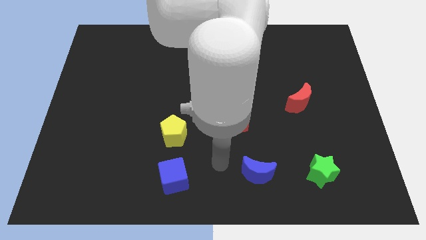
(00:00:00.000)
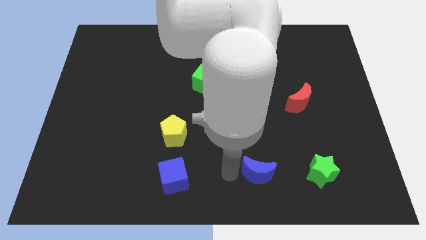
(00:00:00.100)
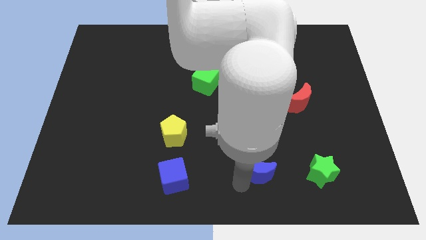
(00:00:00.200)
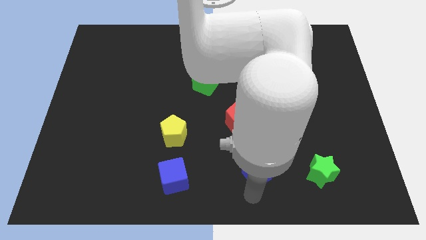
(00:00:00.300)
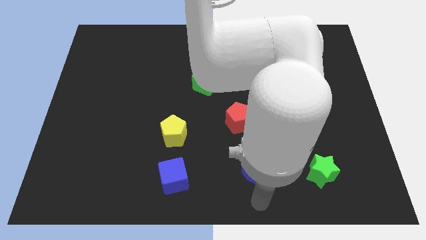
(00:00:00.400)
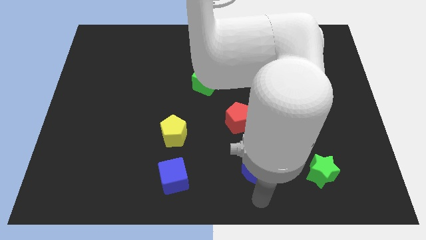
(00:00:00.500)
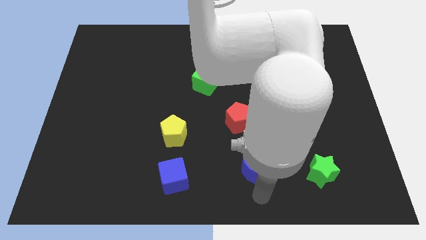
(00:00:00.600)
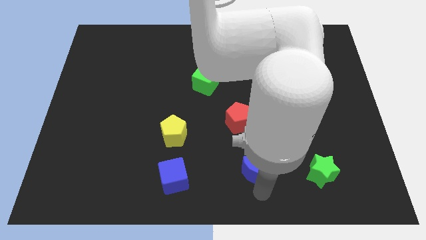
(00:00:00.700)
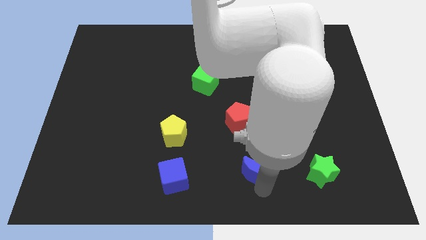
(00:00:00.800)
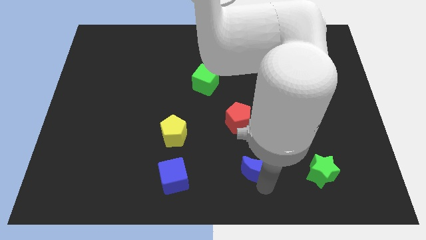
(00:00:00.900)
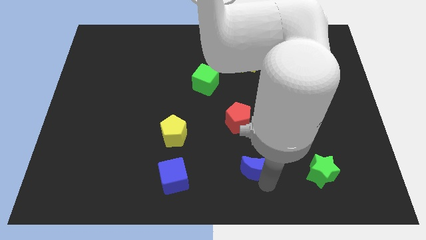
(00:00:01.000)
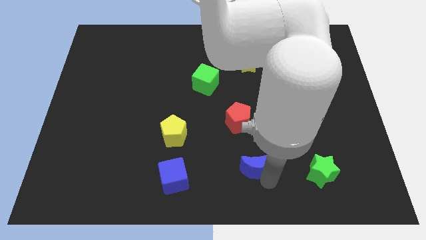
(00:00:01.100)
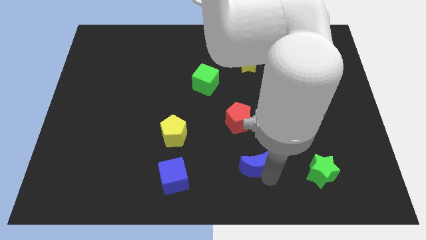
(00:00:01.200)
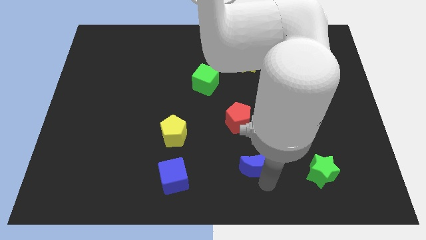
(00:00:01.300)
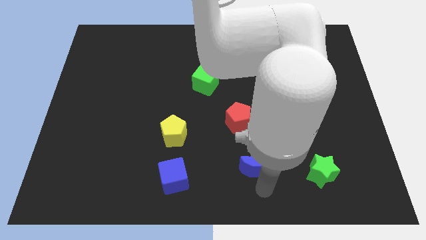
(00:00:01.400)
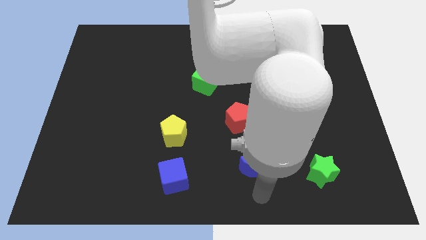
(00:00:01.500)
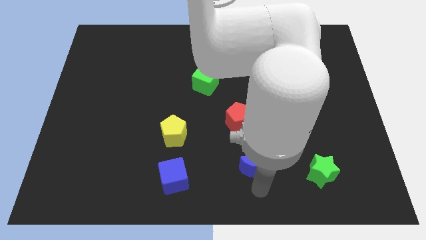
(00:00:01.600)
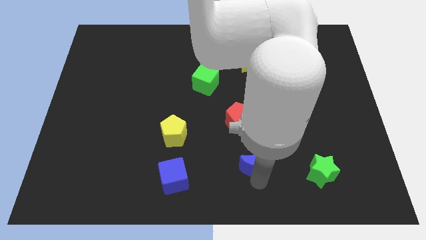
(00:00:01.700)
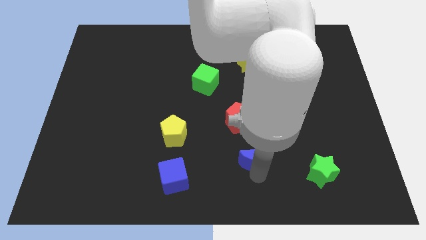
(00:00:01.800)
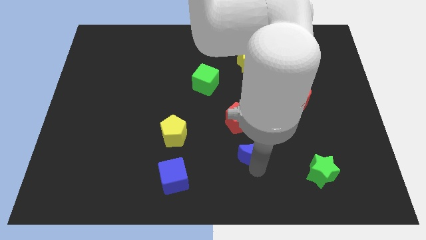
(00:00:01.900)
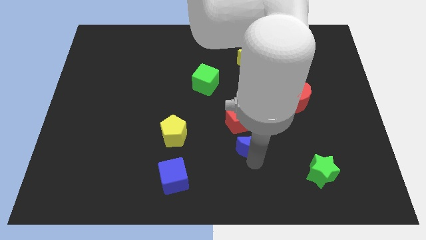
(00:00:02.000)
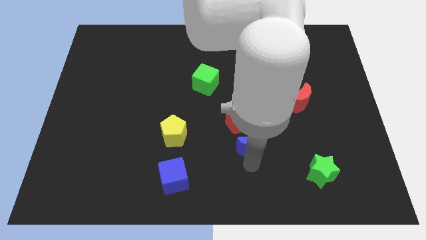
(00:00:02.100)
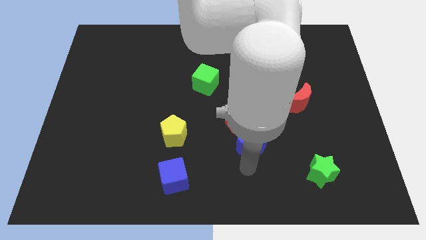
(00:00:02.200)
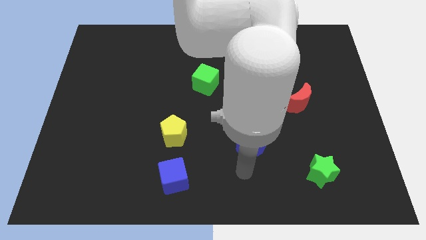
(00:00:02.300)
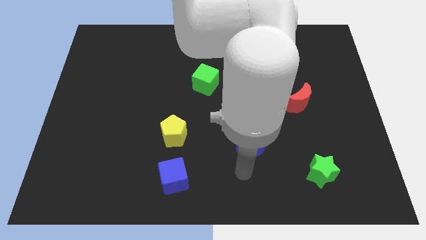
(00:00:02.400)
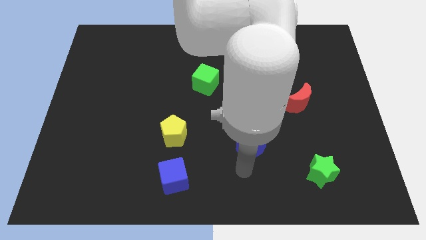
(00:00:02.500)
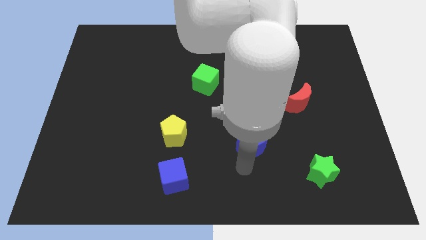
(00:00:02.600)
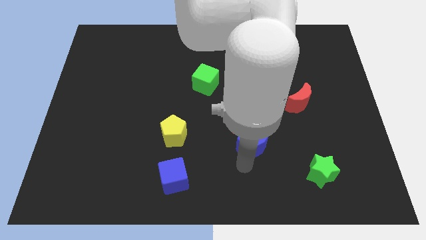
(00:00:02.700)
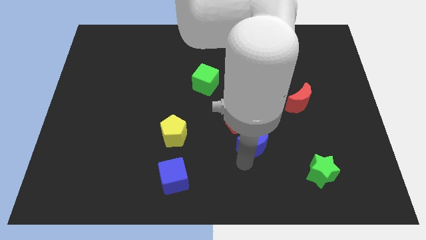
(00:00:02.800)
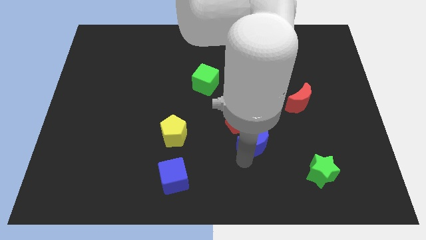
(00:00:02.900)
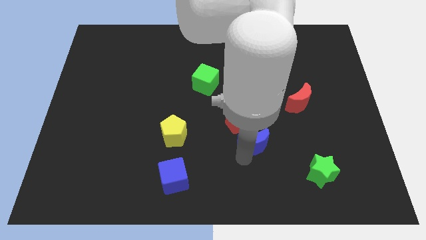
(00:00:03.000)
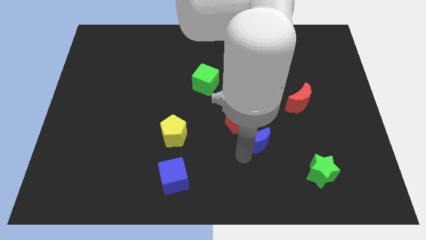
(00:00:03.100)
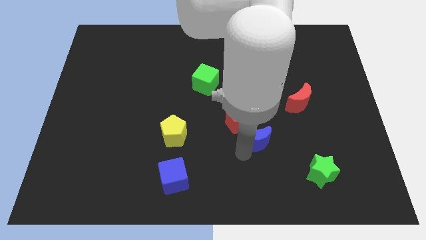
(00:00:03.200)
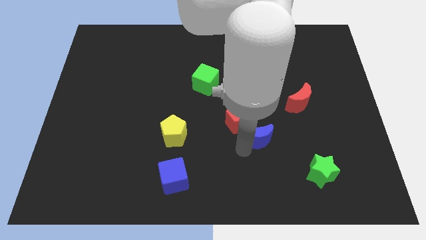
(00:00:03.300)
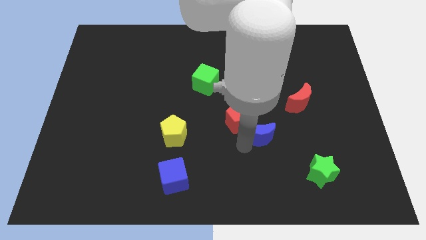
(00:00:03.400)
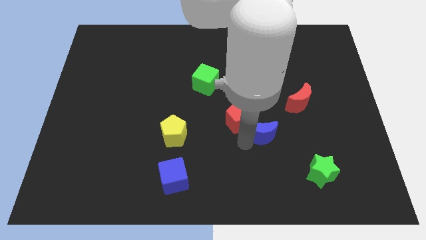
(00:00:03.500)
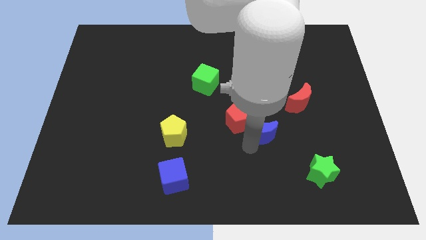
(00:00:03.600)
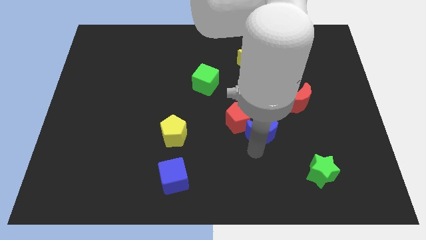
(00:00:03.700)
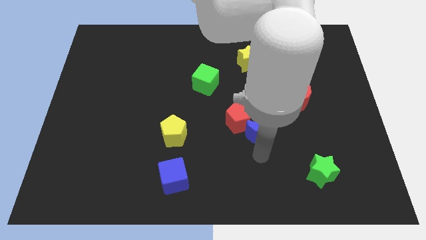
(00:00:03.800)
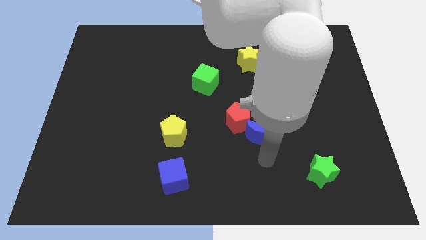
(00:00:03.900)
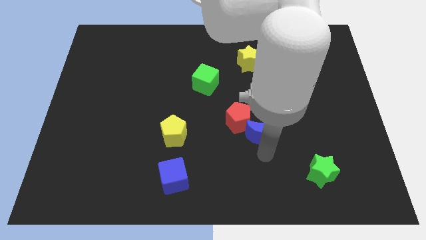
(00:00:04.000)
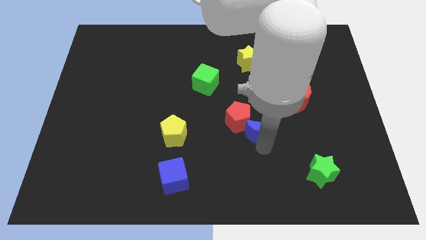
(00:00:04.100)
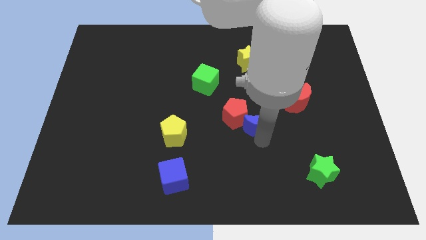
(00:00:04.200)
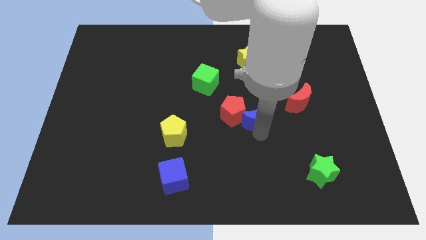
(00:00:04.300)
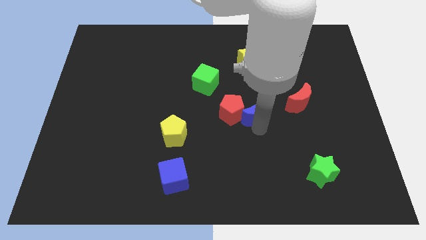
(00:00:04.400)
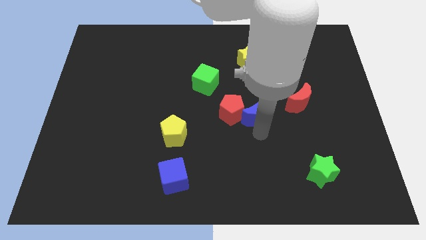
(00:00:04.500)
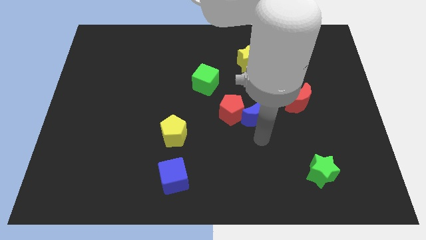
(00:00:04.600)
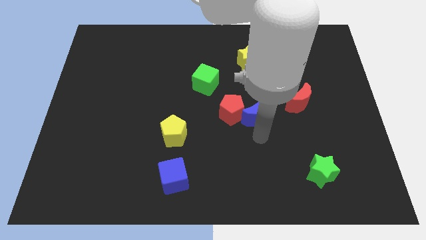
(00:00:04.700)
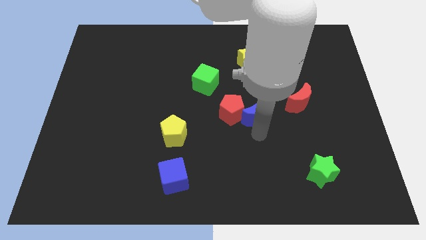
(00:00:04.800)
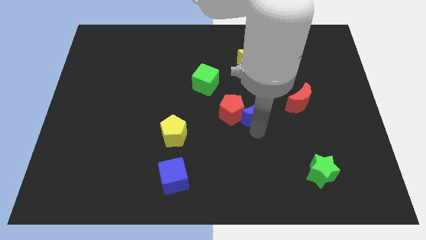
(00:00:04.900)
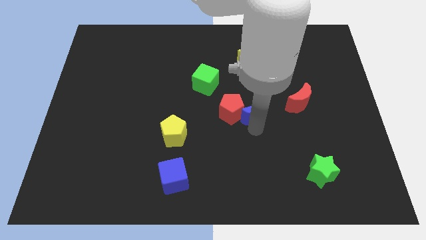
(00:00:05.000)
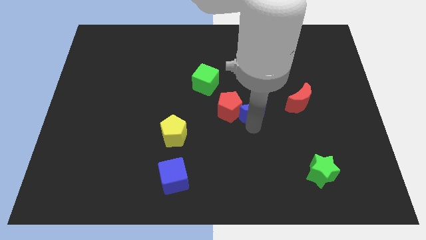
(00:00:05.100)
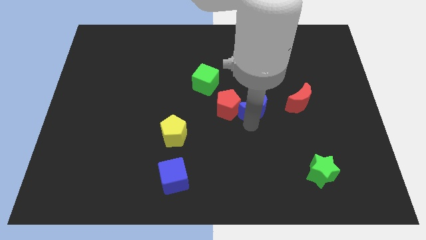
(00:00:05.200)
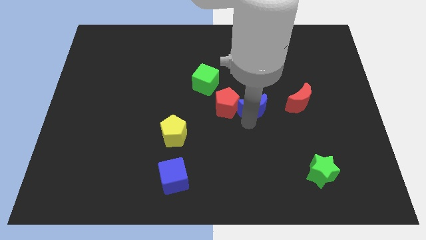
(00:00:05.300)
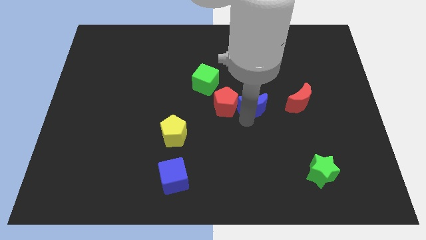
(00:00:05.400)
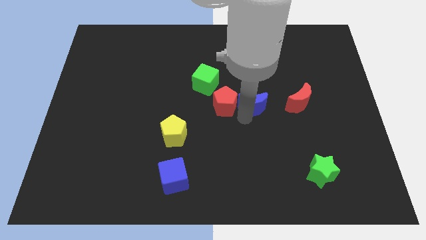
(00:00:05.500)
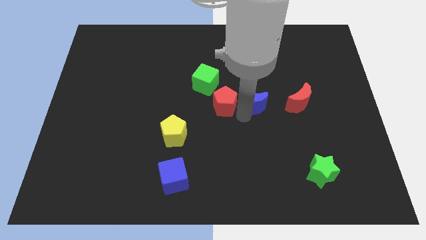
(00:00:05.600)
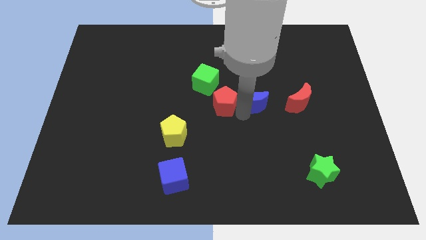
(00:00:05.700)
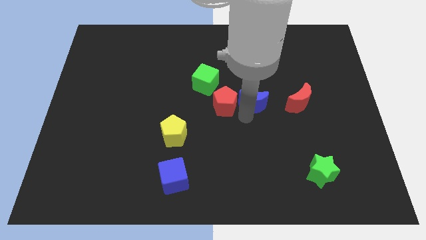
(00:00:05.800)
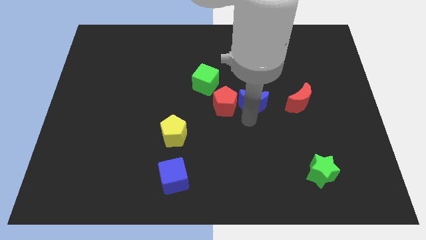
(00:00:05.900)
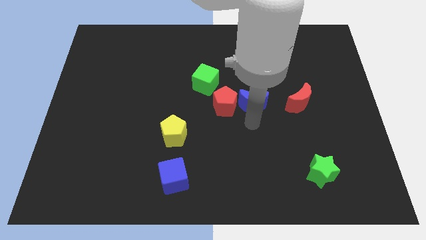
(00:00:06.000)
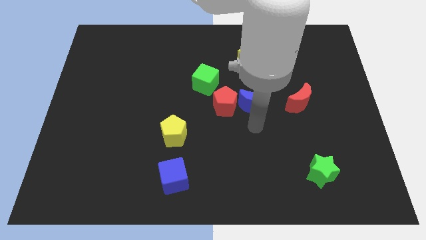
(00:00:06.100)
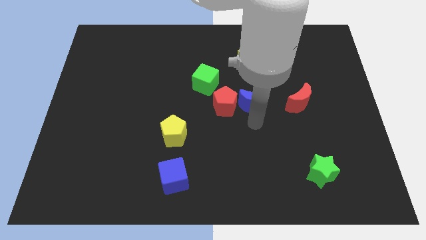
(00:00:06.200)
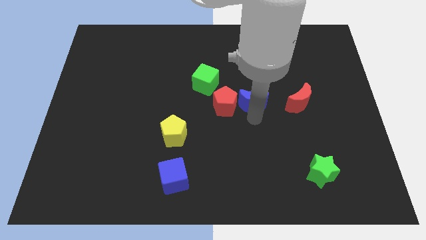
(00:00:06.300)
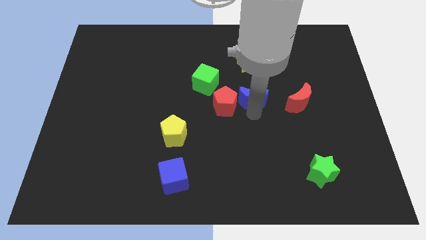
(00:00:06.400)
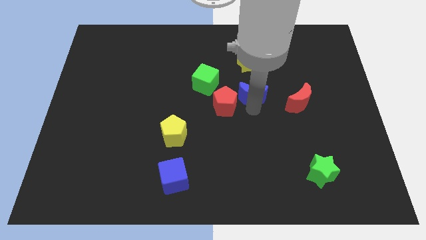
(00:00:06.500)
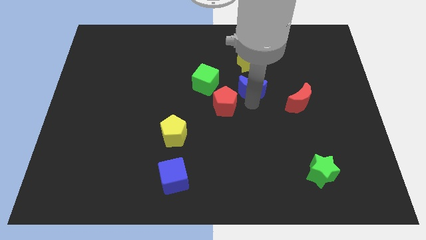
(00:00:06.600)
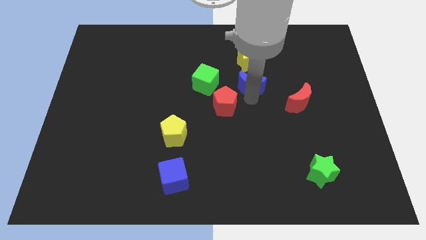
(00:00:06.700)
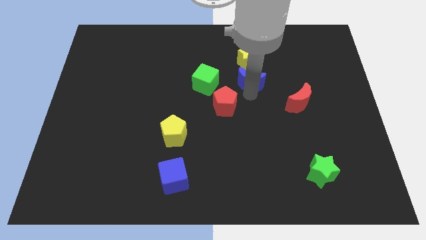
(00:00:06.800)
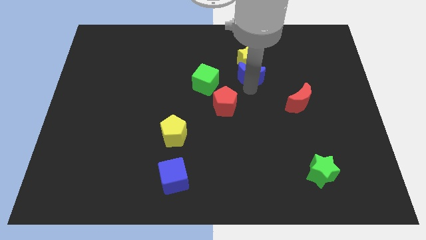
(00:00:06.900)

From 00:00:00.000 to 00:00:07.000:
slide the blue moon next to the yellow star

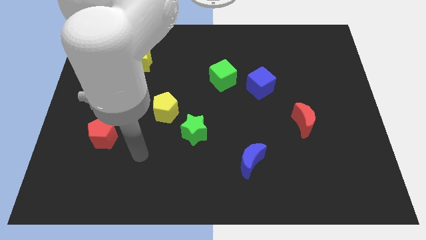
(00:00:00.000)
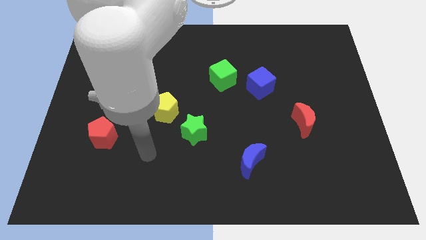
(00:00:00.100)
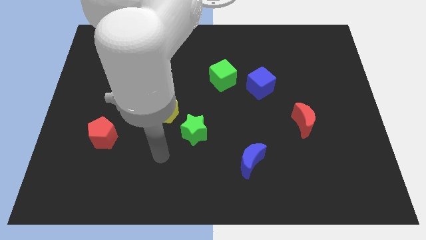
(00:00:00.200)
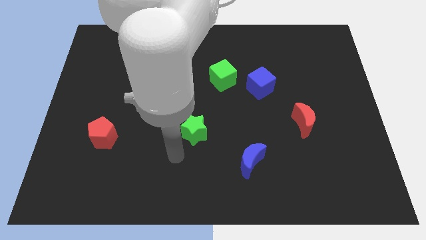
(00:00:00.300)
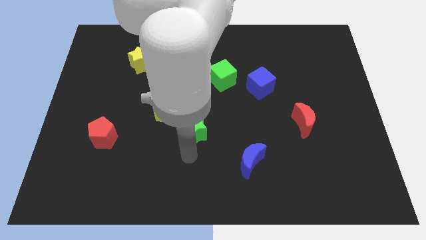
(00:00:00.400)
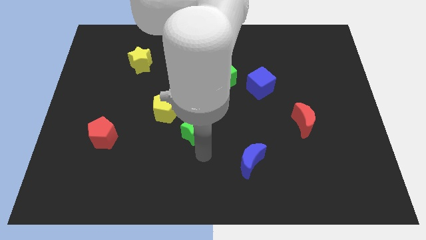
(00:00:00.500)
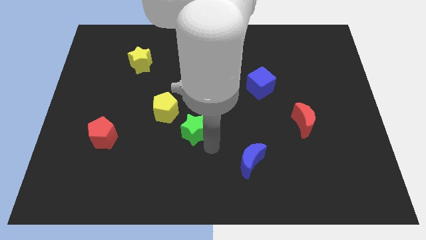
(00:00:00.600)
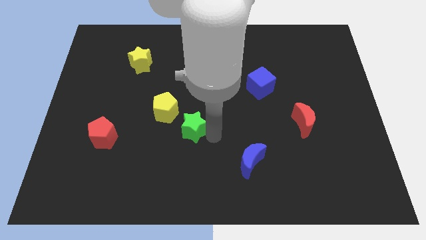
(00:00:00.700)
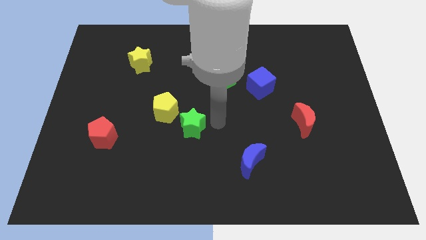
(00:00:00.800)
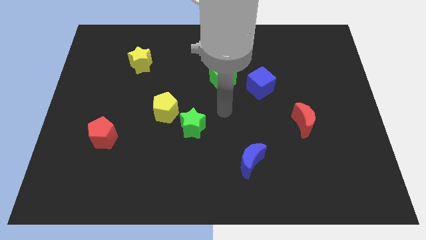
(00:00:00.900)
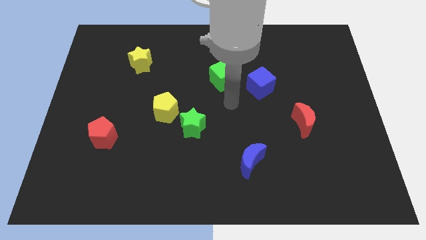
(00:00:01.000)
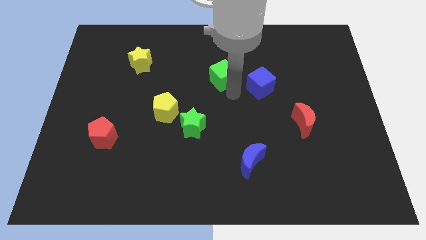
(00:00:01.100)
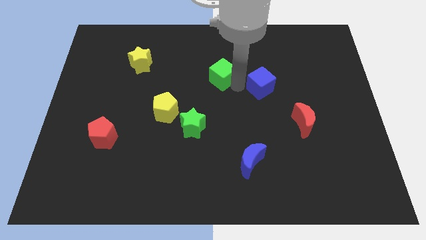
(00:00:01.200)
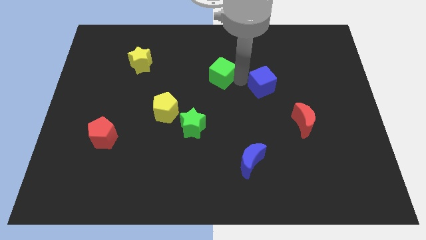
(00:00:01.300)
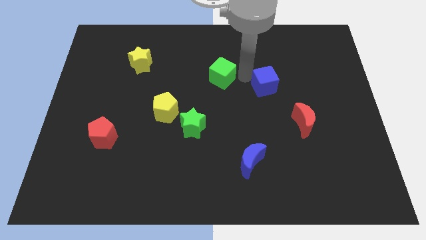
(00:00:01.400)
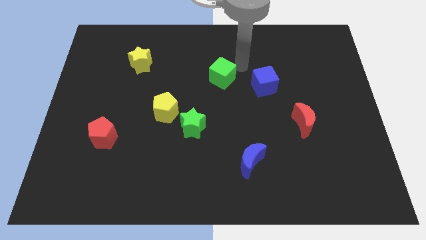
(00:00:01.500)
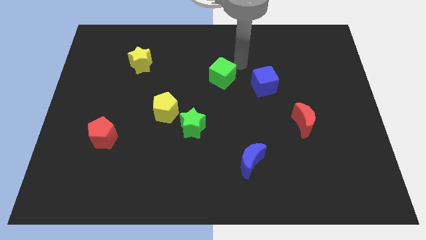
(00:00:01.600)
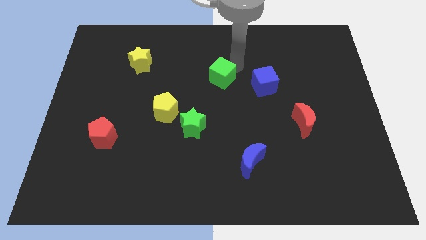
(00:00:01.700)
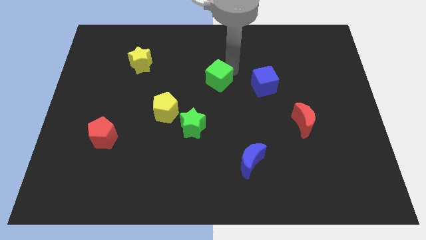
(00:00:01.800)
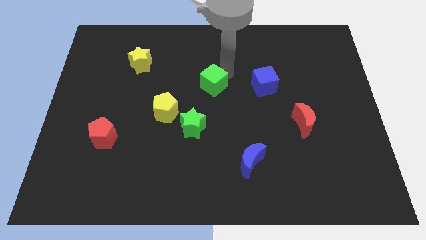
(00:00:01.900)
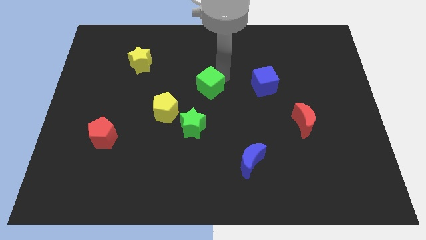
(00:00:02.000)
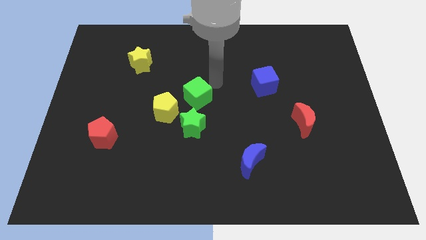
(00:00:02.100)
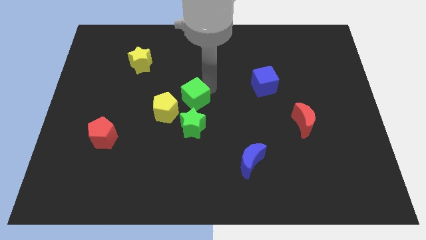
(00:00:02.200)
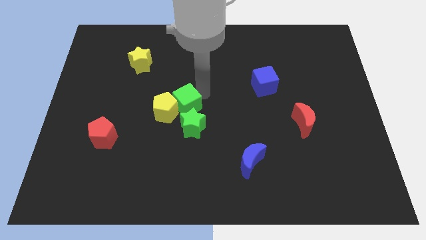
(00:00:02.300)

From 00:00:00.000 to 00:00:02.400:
put the green cube to the yellow pentagon
